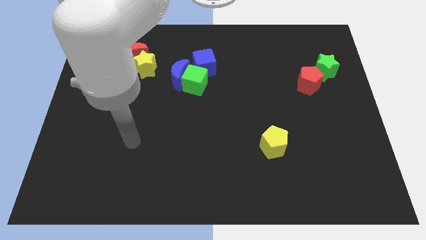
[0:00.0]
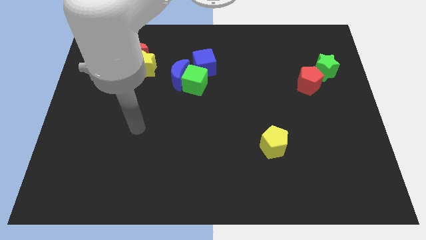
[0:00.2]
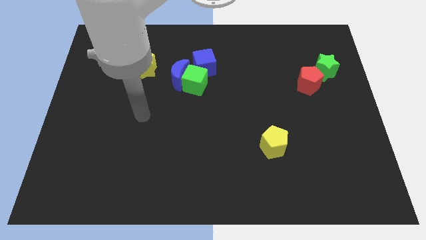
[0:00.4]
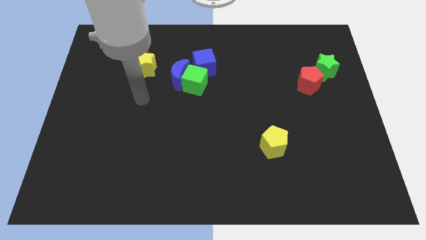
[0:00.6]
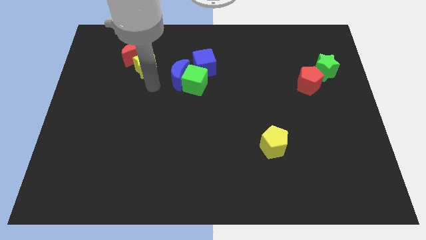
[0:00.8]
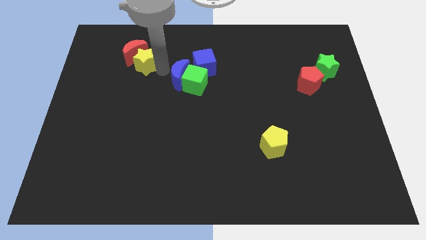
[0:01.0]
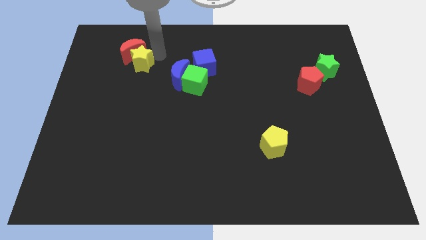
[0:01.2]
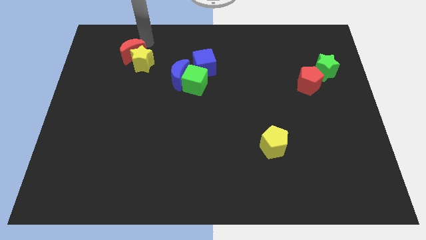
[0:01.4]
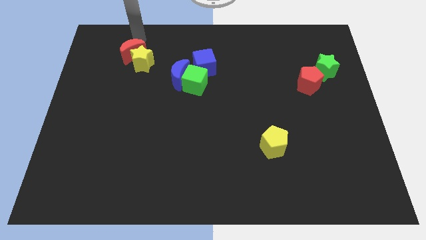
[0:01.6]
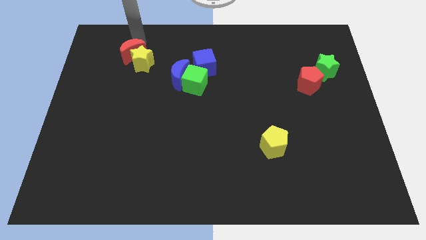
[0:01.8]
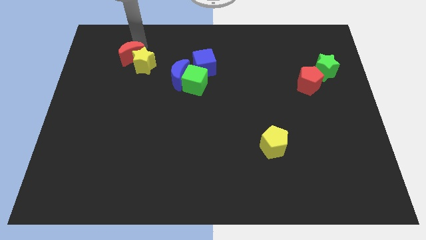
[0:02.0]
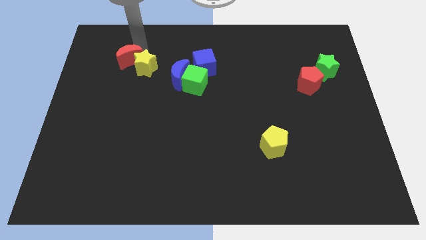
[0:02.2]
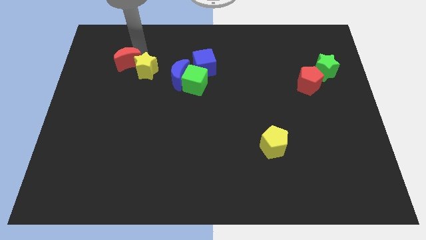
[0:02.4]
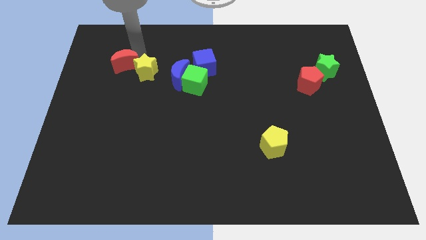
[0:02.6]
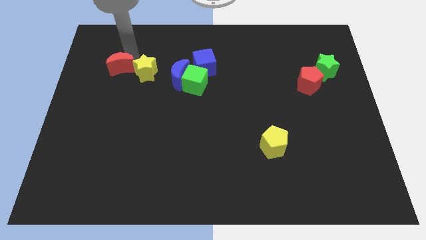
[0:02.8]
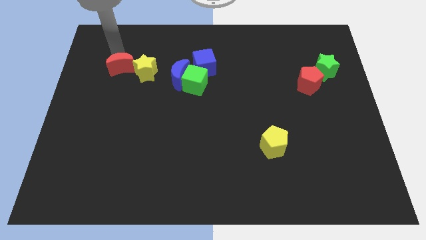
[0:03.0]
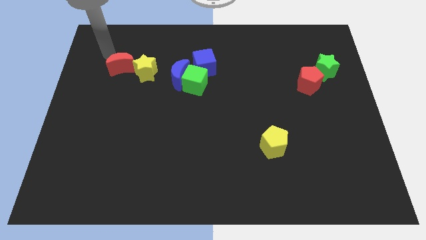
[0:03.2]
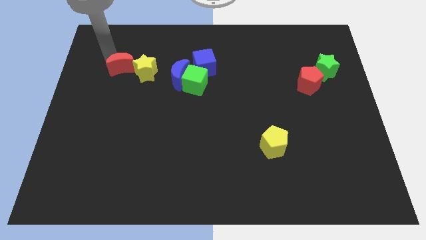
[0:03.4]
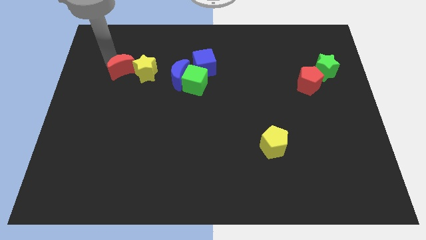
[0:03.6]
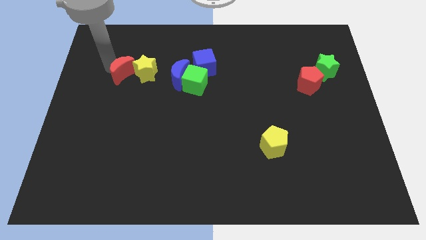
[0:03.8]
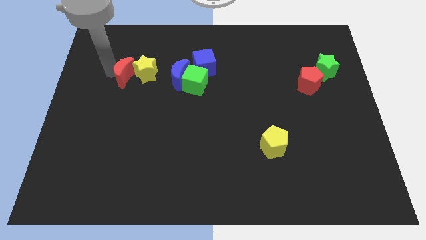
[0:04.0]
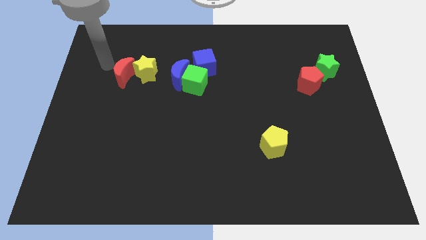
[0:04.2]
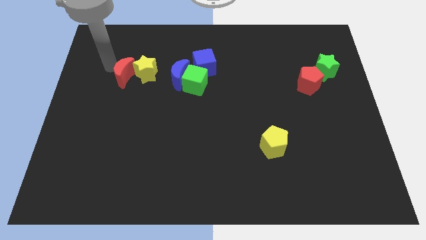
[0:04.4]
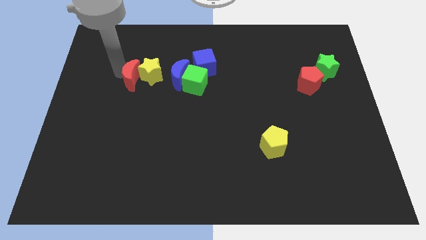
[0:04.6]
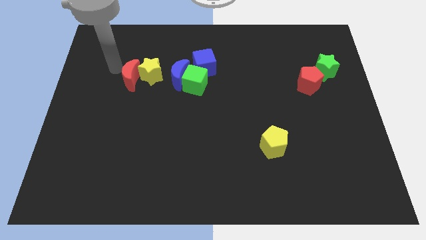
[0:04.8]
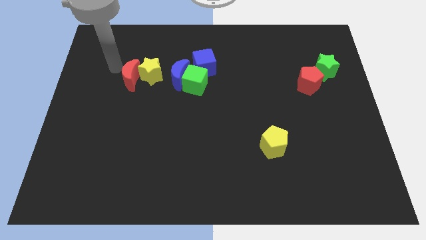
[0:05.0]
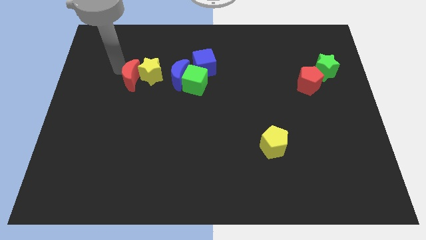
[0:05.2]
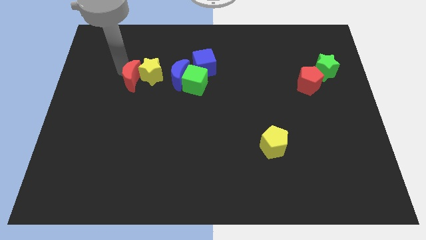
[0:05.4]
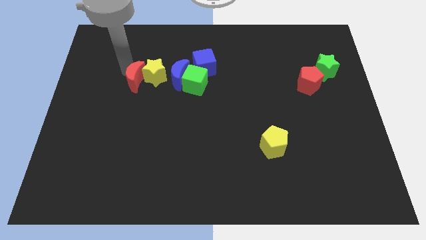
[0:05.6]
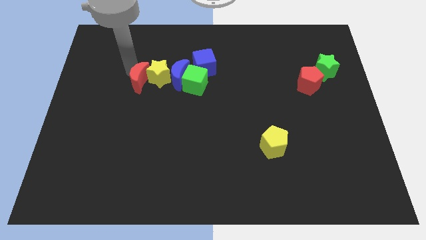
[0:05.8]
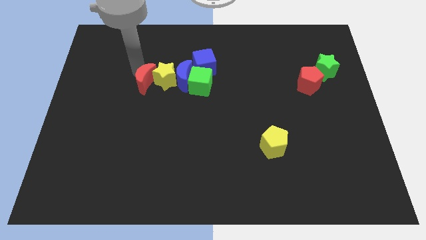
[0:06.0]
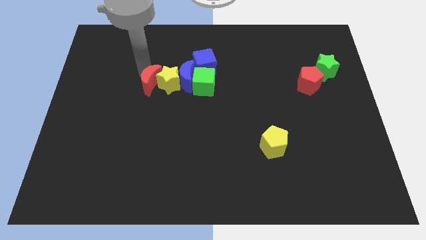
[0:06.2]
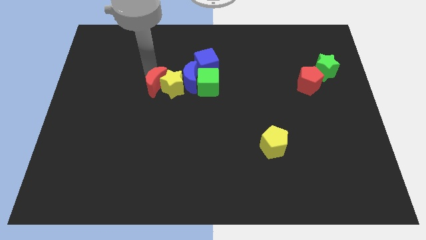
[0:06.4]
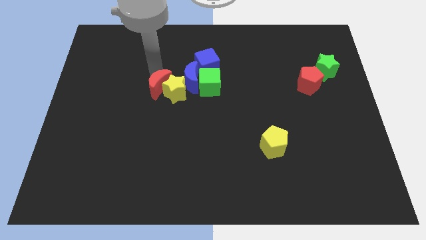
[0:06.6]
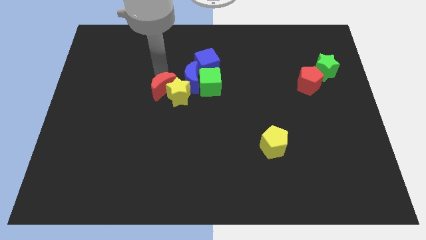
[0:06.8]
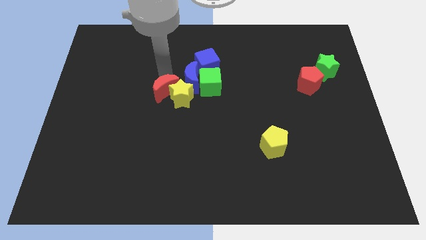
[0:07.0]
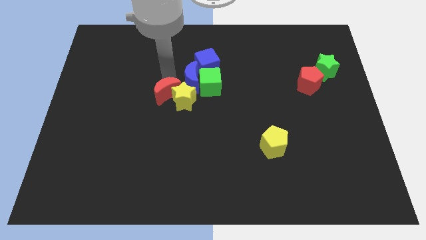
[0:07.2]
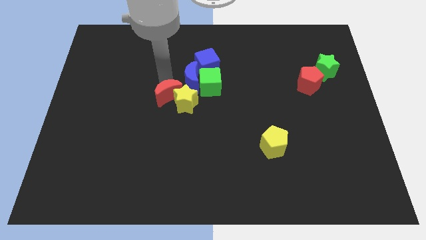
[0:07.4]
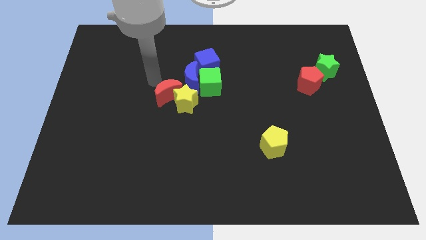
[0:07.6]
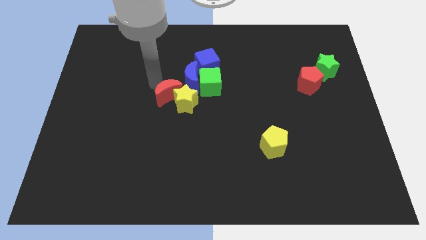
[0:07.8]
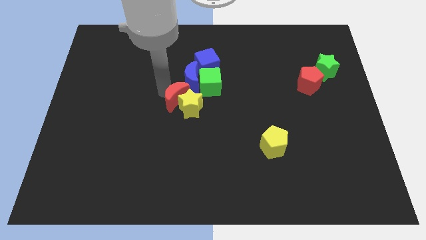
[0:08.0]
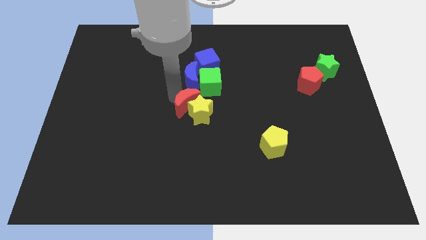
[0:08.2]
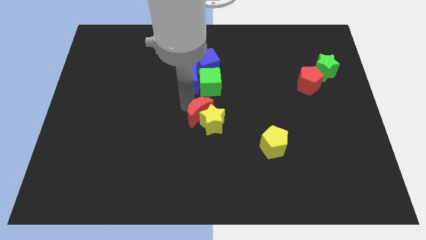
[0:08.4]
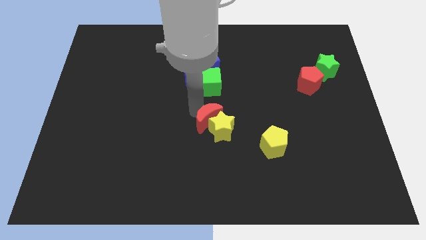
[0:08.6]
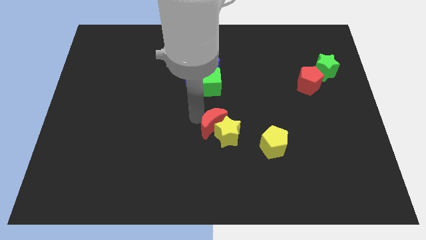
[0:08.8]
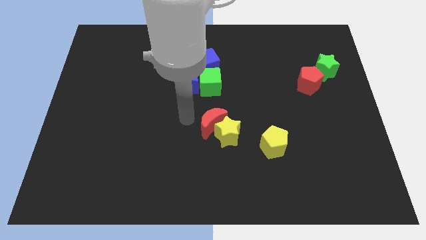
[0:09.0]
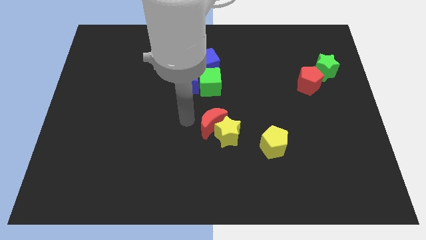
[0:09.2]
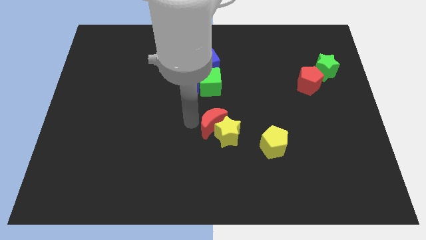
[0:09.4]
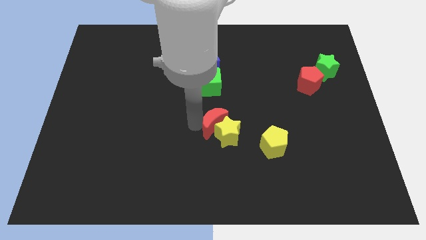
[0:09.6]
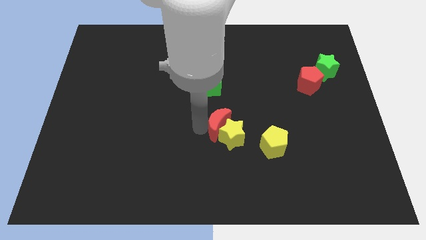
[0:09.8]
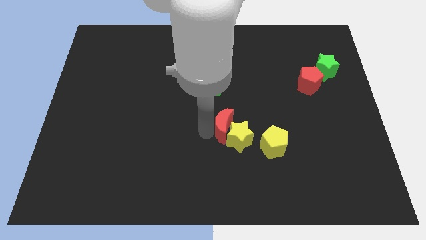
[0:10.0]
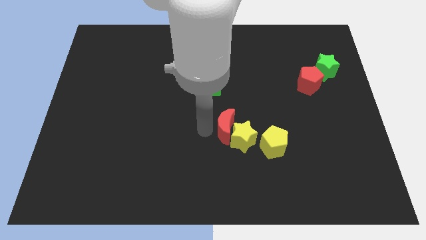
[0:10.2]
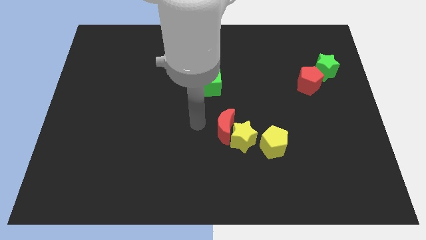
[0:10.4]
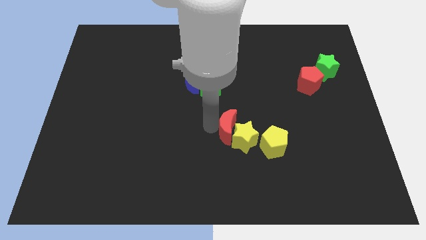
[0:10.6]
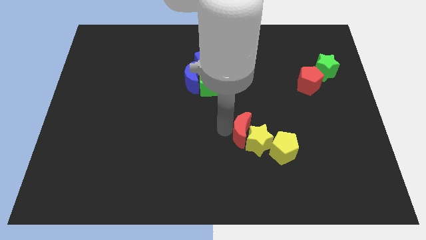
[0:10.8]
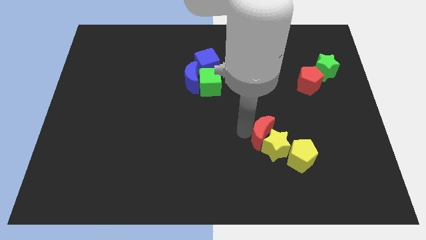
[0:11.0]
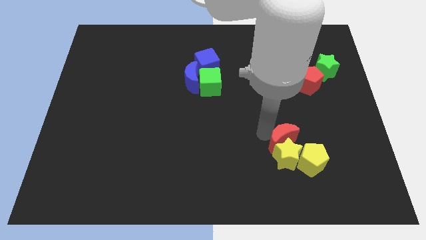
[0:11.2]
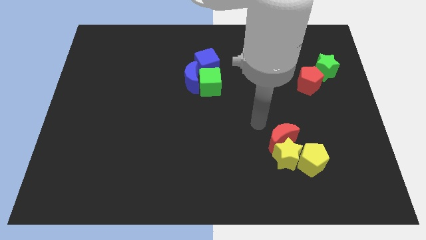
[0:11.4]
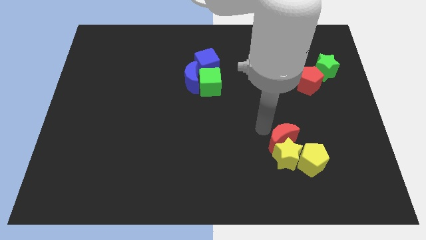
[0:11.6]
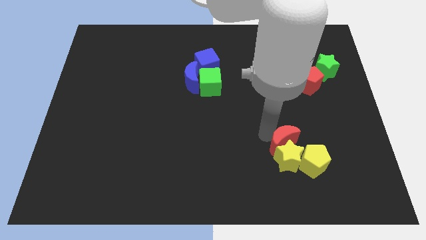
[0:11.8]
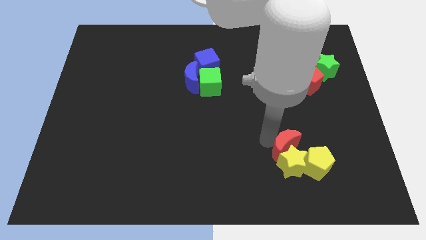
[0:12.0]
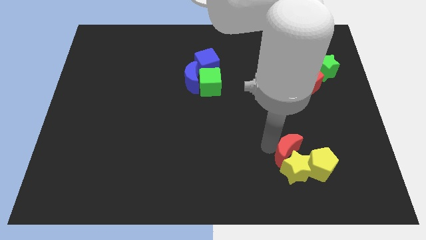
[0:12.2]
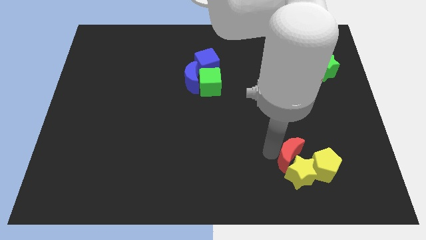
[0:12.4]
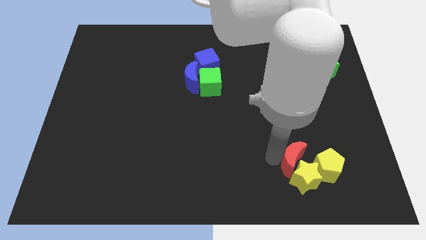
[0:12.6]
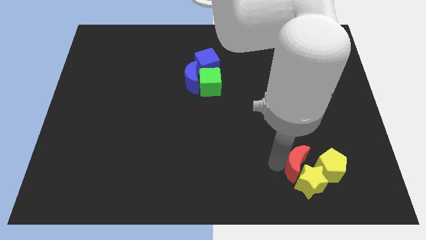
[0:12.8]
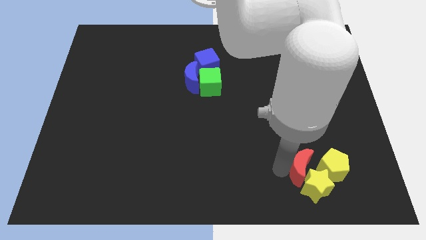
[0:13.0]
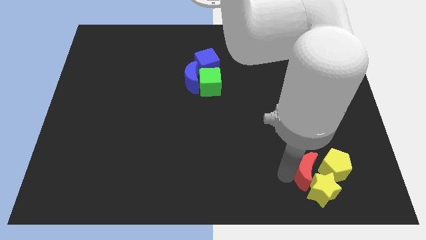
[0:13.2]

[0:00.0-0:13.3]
put the red moon to the yellow pentagon

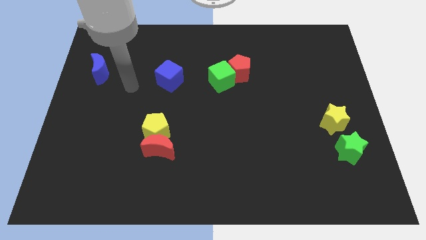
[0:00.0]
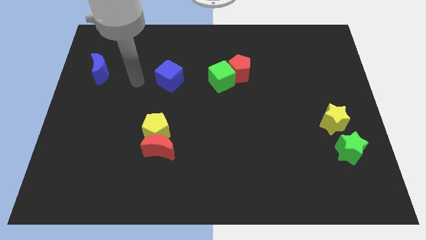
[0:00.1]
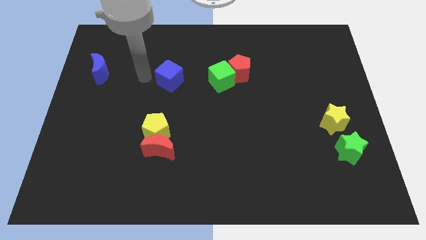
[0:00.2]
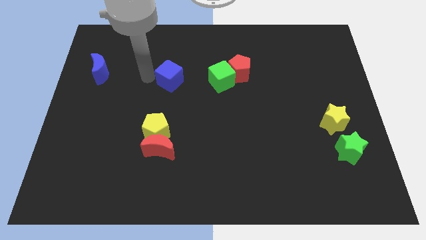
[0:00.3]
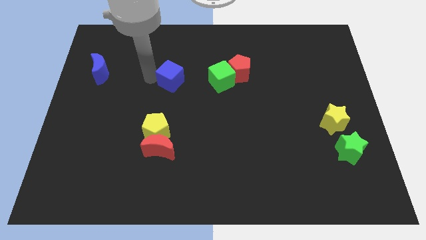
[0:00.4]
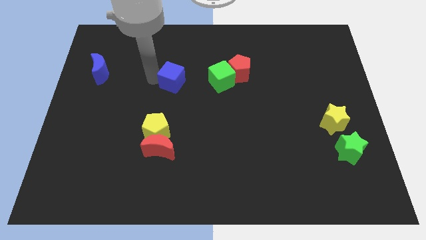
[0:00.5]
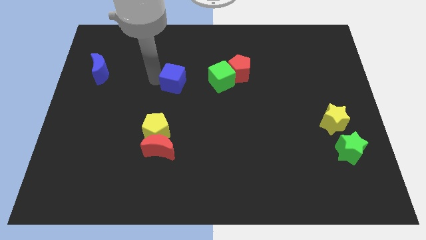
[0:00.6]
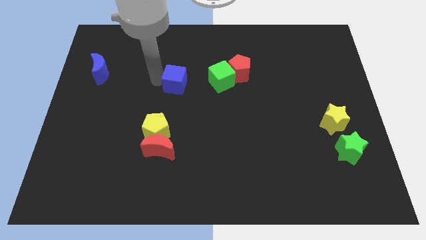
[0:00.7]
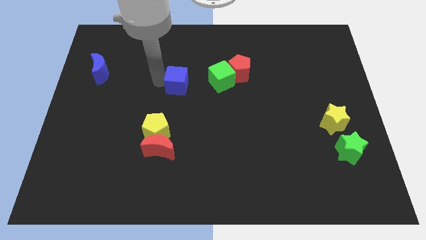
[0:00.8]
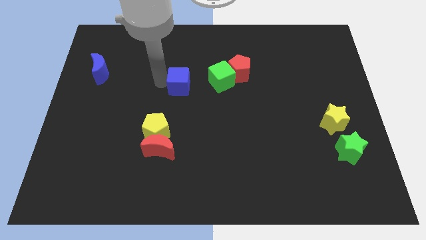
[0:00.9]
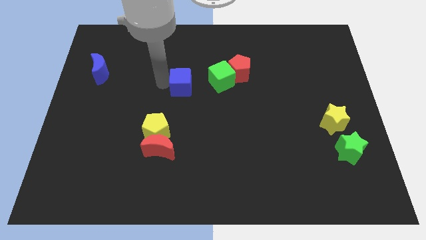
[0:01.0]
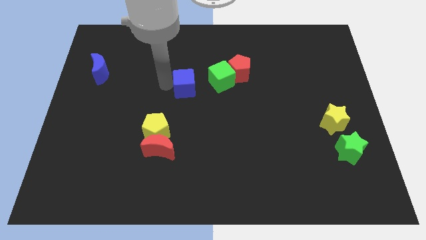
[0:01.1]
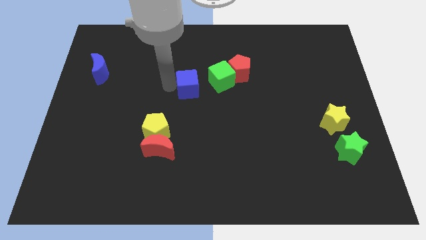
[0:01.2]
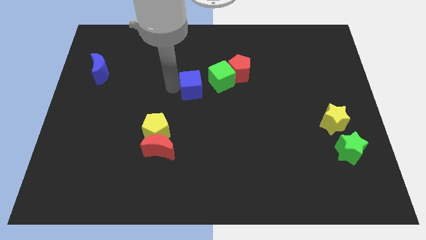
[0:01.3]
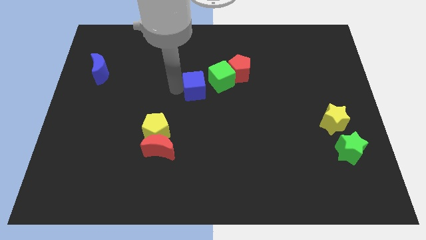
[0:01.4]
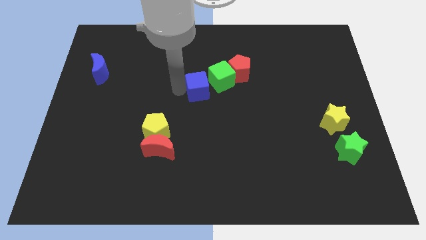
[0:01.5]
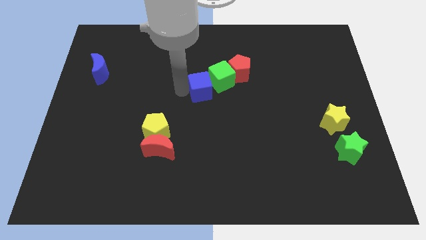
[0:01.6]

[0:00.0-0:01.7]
put the blue cube to the green cube
